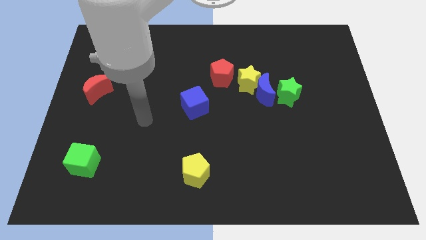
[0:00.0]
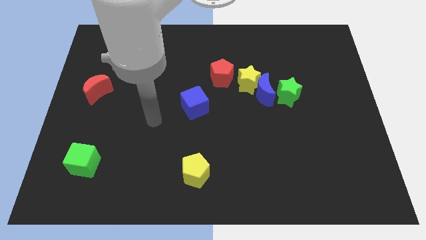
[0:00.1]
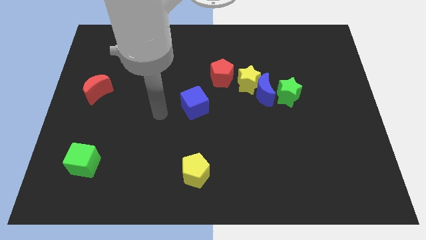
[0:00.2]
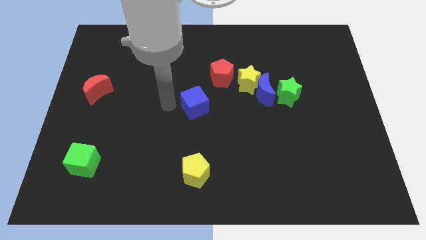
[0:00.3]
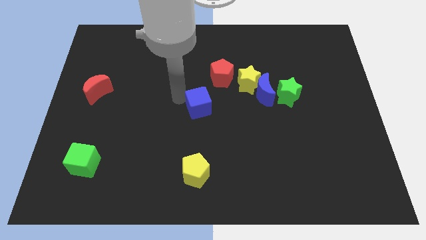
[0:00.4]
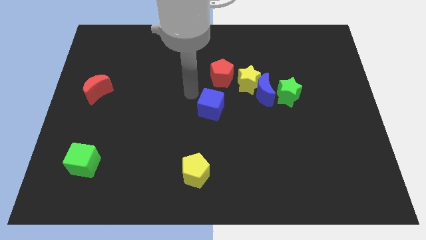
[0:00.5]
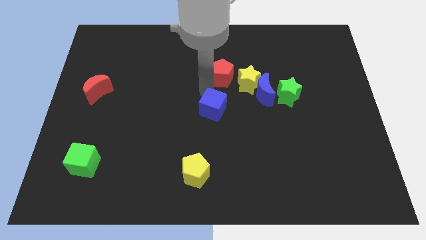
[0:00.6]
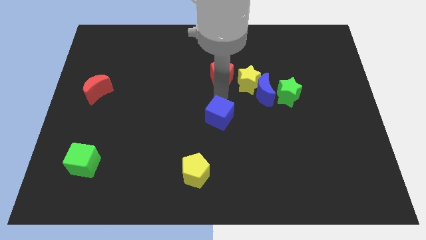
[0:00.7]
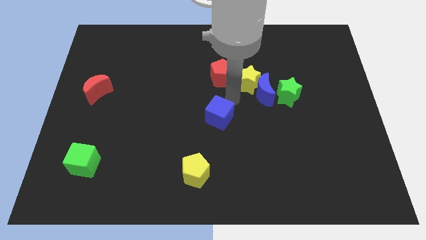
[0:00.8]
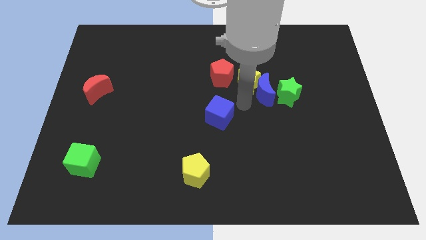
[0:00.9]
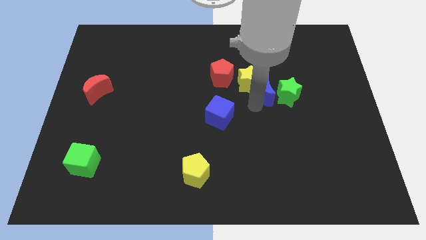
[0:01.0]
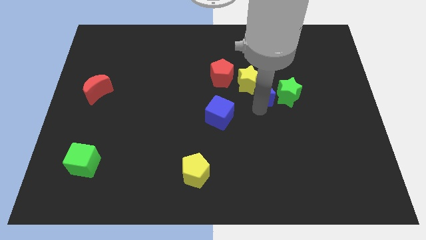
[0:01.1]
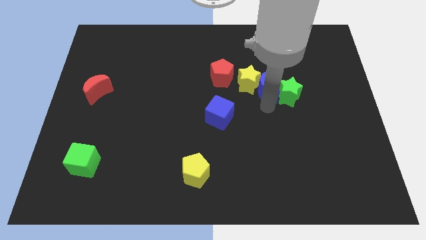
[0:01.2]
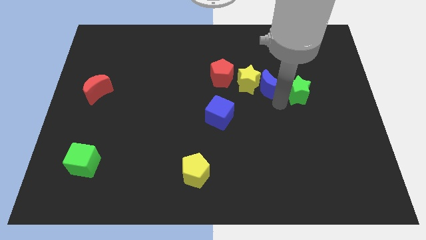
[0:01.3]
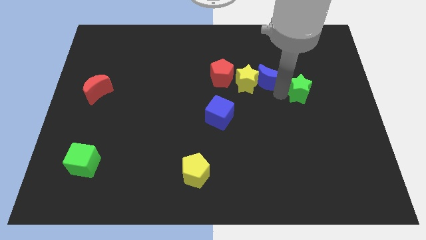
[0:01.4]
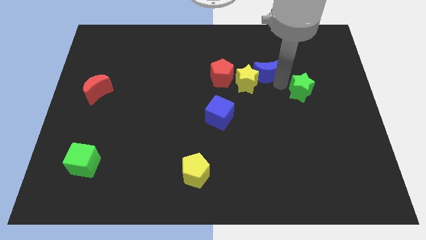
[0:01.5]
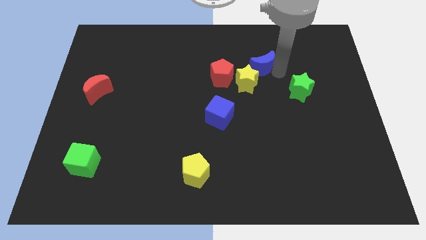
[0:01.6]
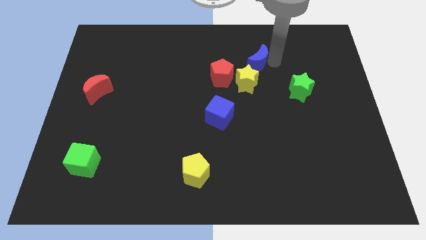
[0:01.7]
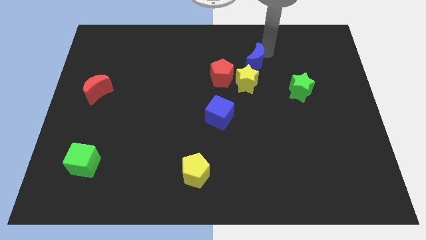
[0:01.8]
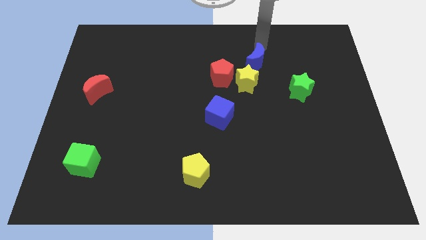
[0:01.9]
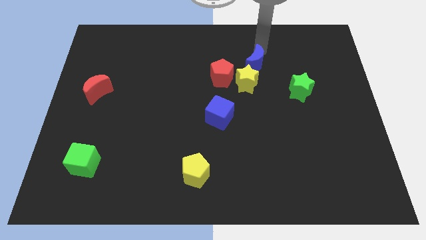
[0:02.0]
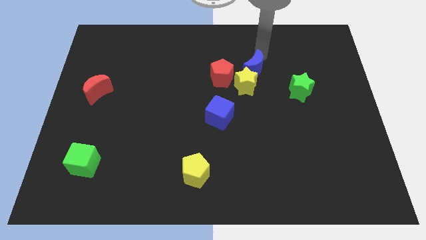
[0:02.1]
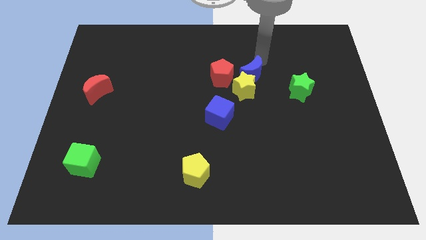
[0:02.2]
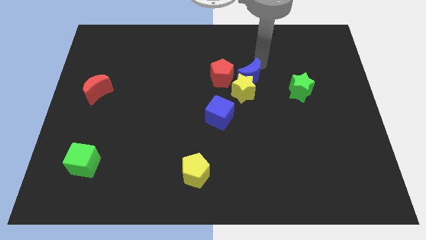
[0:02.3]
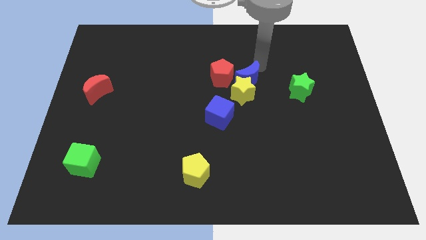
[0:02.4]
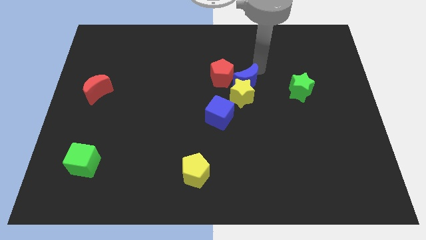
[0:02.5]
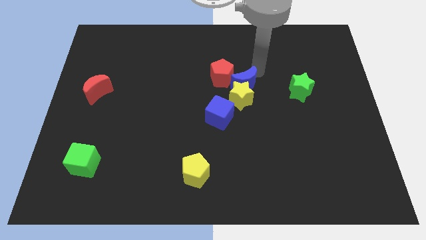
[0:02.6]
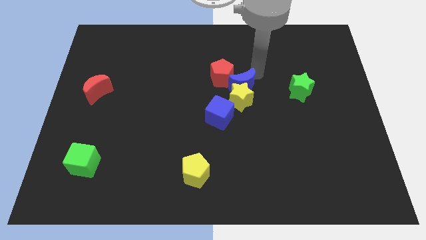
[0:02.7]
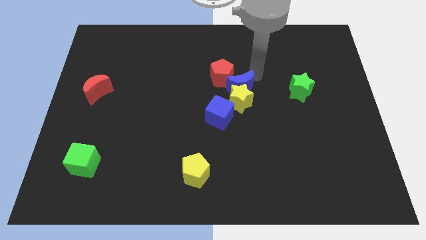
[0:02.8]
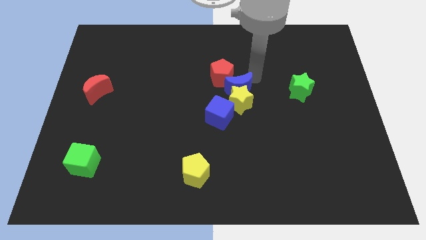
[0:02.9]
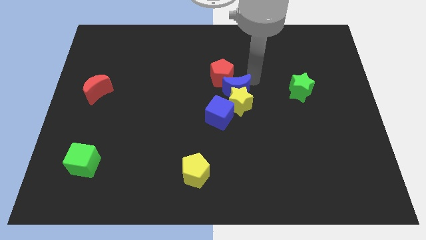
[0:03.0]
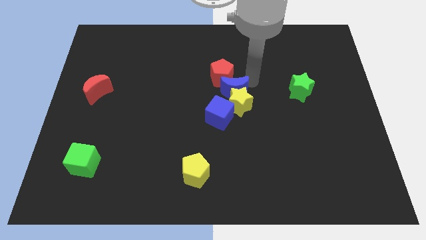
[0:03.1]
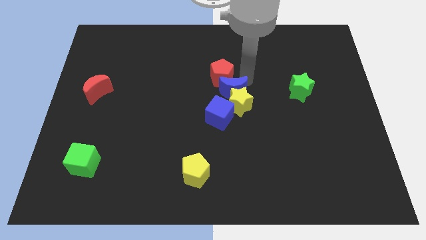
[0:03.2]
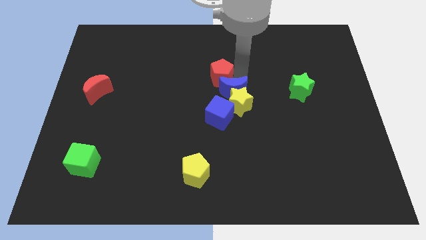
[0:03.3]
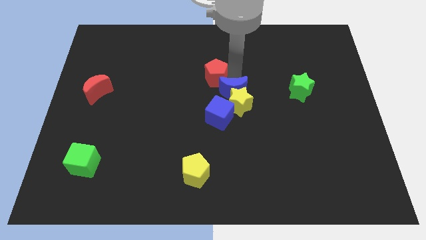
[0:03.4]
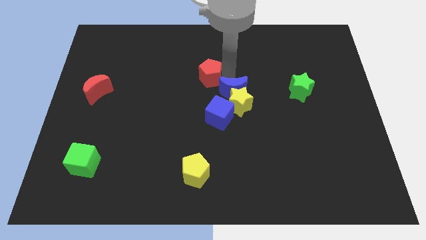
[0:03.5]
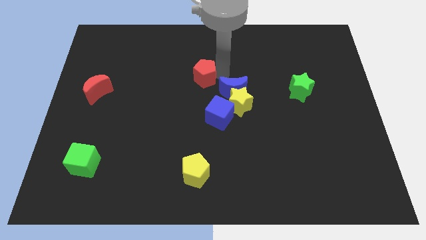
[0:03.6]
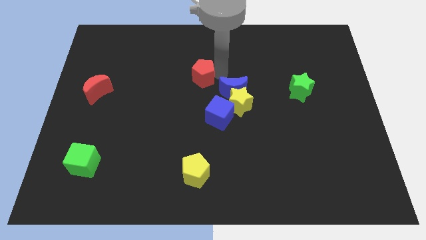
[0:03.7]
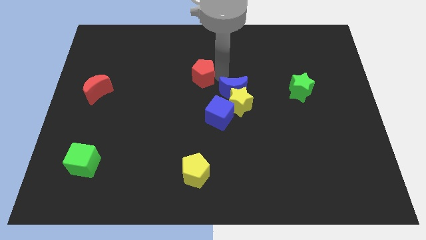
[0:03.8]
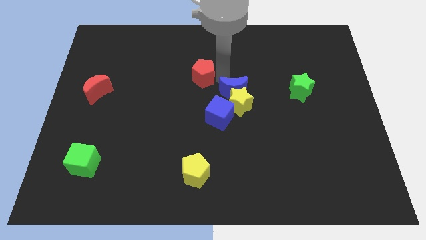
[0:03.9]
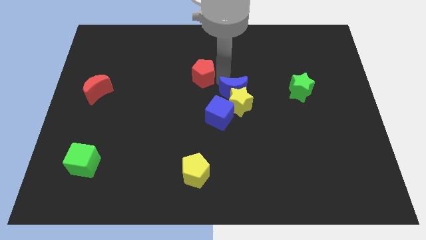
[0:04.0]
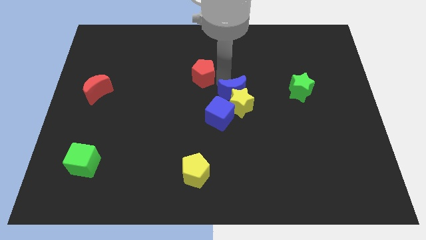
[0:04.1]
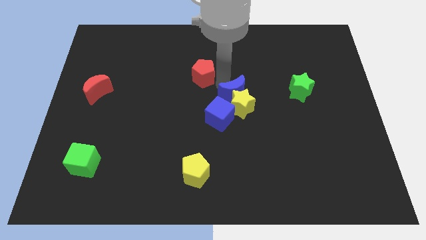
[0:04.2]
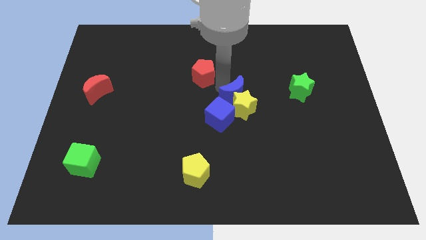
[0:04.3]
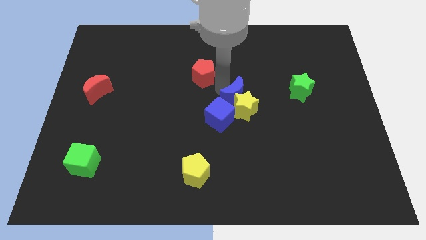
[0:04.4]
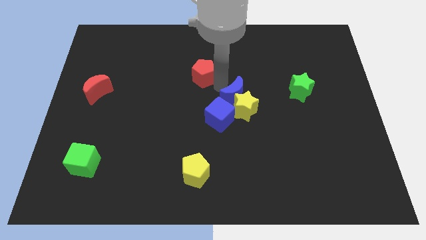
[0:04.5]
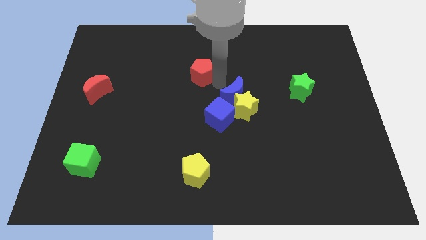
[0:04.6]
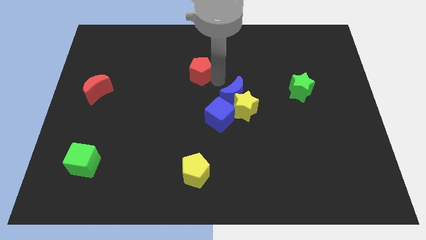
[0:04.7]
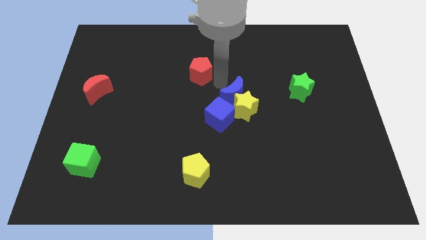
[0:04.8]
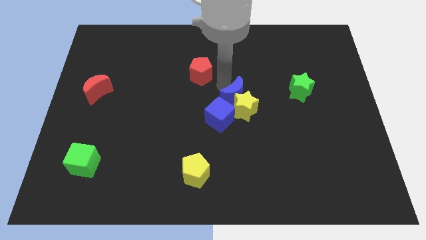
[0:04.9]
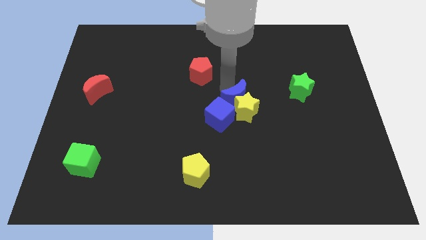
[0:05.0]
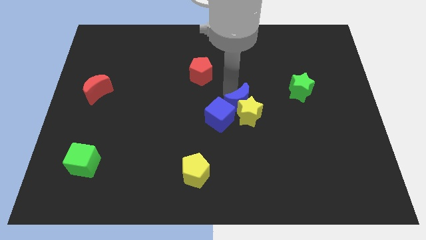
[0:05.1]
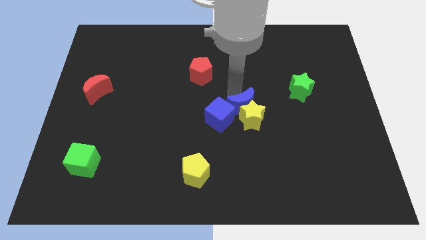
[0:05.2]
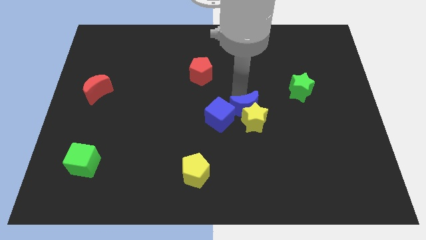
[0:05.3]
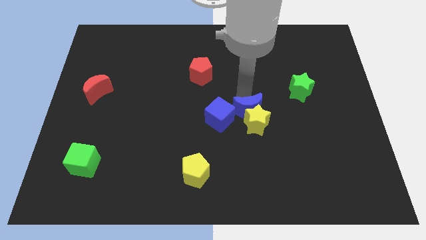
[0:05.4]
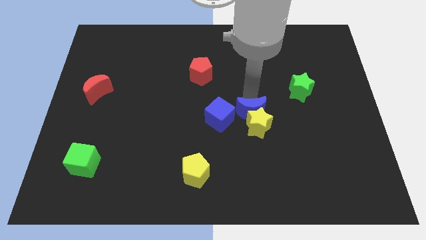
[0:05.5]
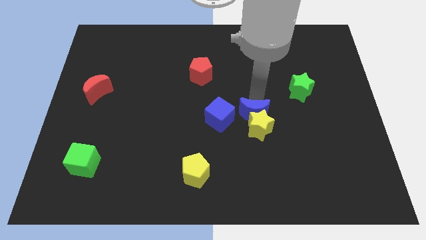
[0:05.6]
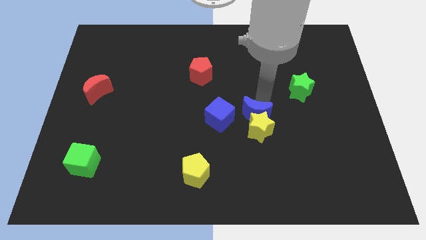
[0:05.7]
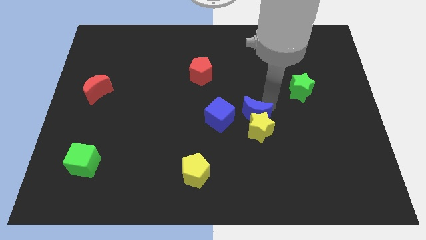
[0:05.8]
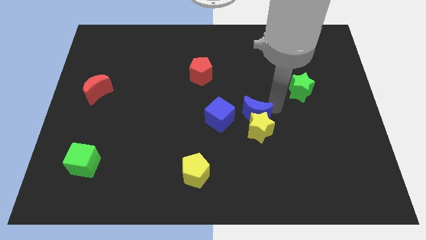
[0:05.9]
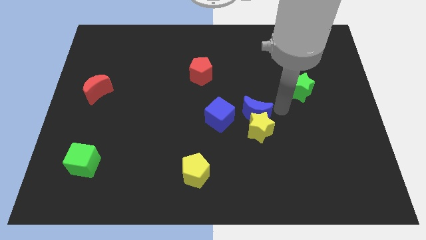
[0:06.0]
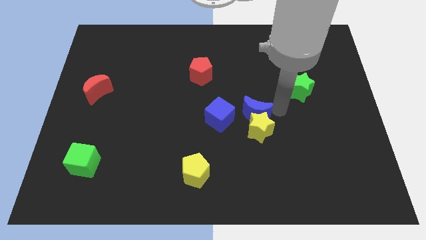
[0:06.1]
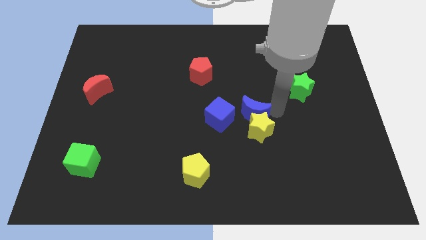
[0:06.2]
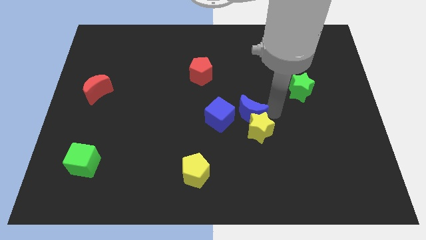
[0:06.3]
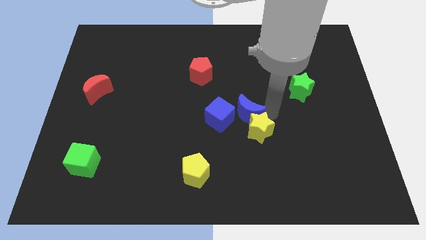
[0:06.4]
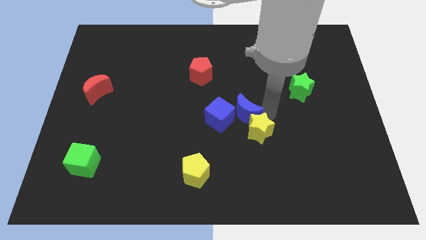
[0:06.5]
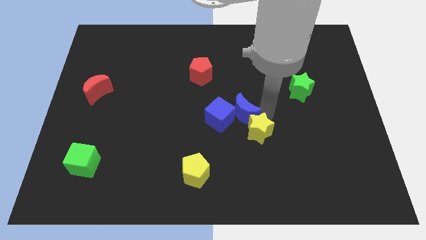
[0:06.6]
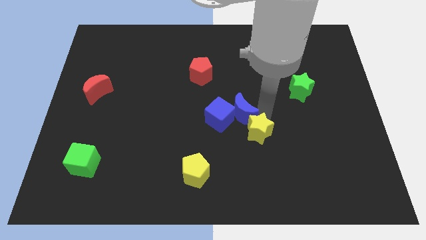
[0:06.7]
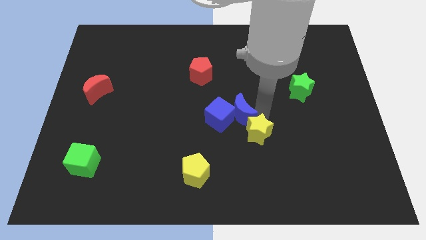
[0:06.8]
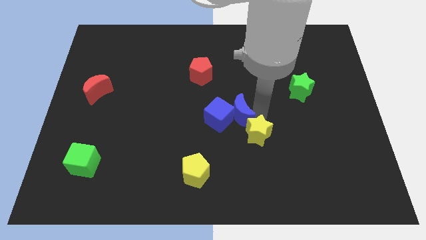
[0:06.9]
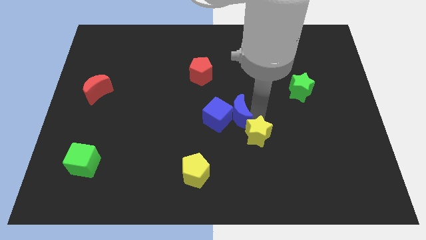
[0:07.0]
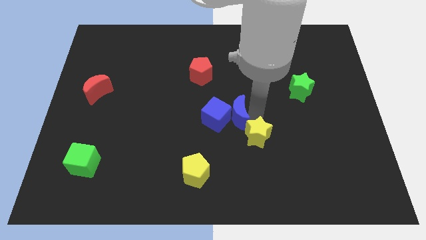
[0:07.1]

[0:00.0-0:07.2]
separate the blue moon from the yellow star and green star

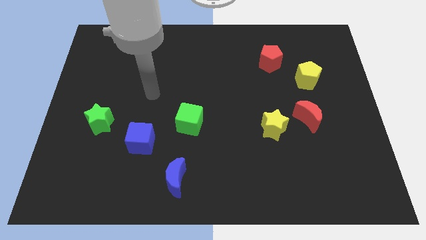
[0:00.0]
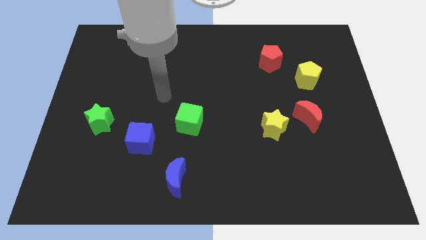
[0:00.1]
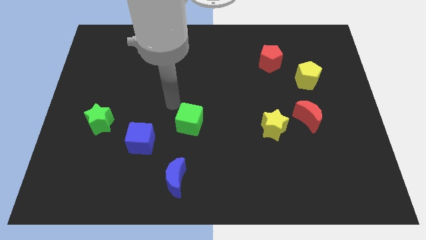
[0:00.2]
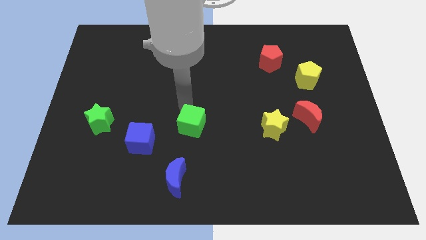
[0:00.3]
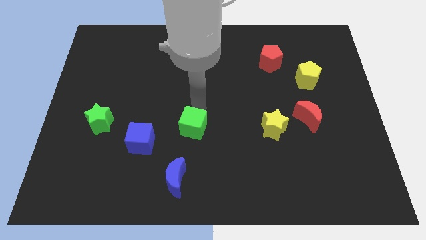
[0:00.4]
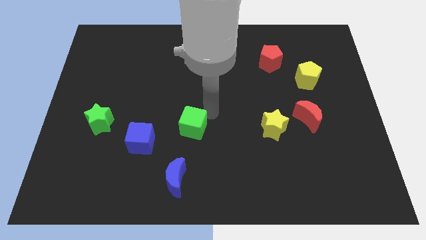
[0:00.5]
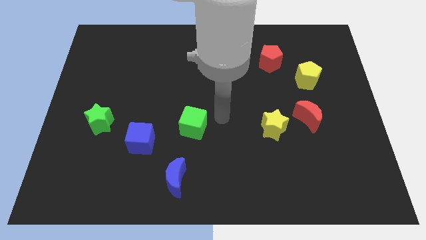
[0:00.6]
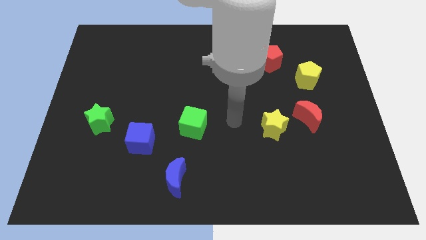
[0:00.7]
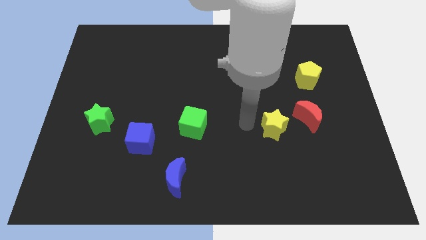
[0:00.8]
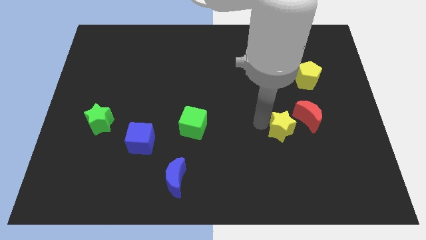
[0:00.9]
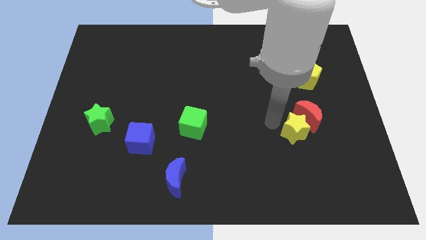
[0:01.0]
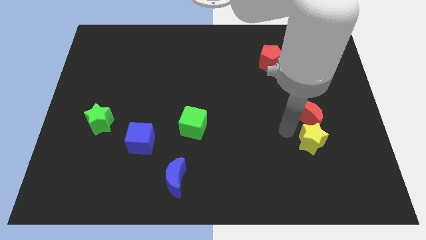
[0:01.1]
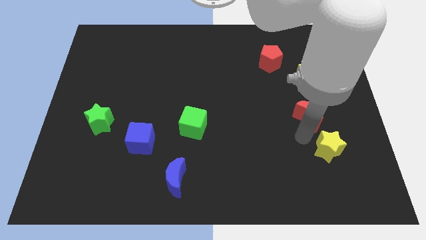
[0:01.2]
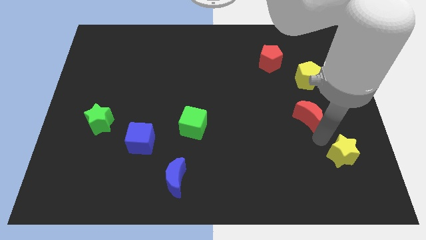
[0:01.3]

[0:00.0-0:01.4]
pull the red moon apart from the yellow star

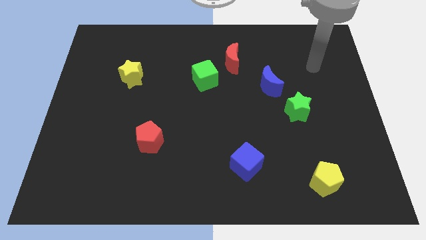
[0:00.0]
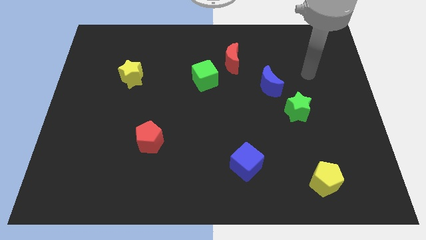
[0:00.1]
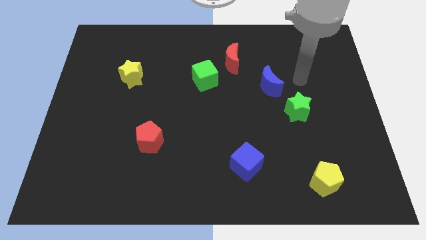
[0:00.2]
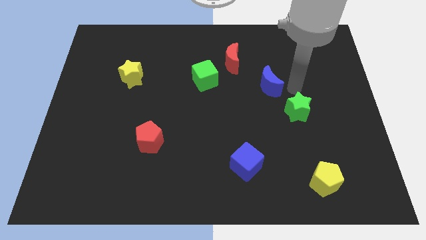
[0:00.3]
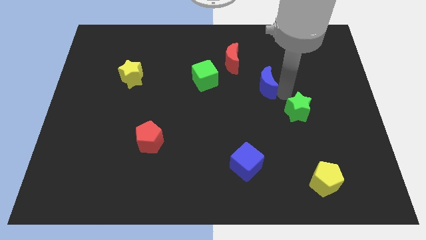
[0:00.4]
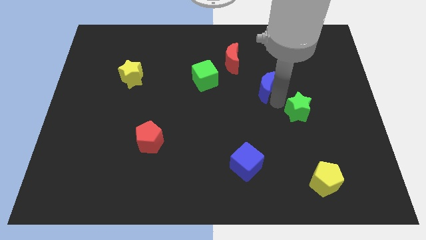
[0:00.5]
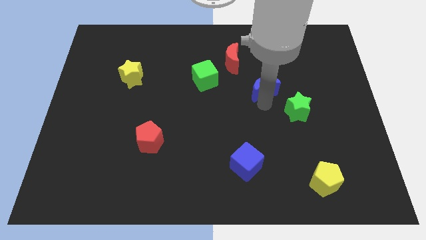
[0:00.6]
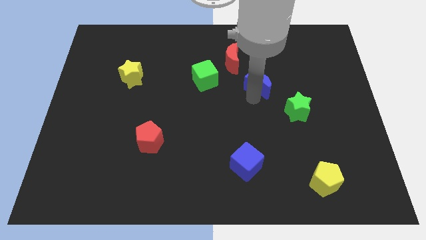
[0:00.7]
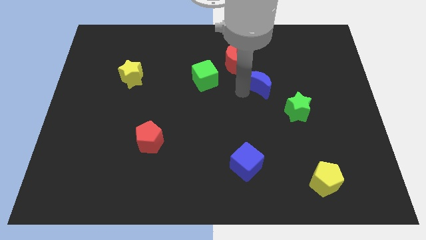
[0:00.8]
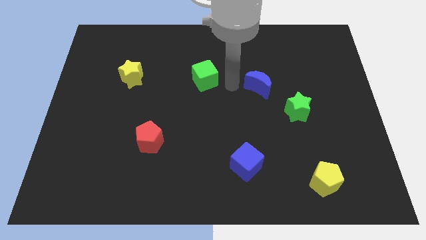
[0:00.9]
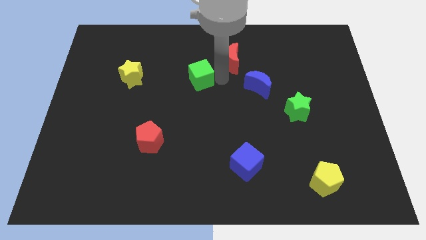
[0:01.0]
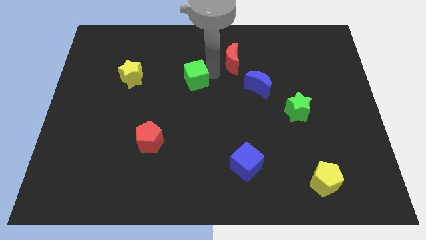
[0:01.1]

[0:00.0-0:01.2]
pull the red moon apart from the green cube
